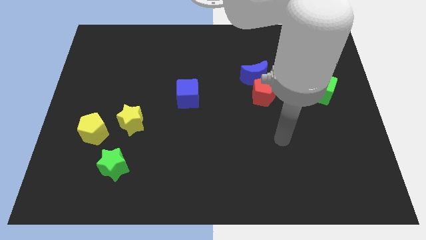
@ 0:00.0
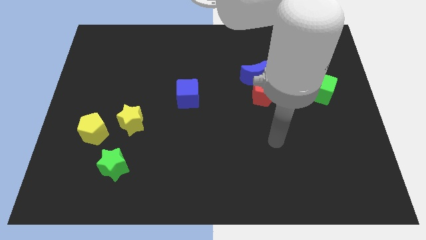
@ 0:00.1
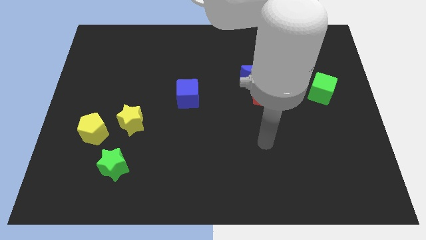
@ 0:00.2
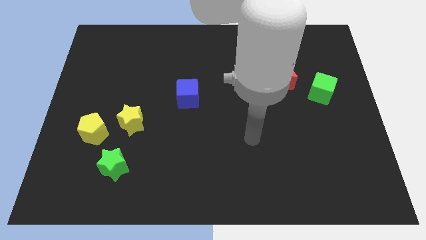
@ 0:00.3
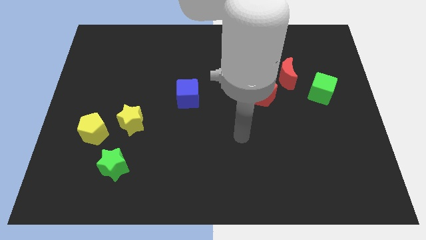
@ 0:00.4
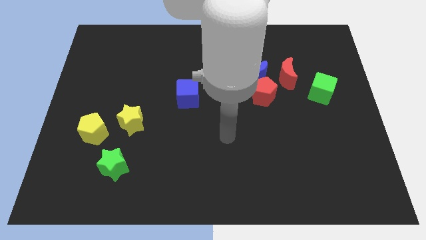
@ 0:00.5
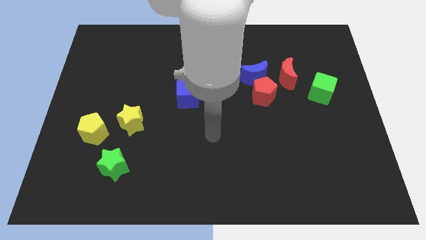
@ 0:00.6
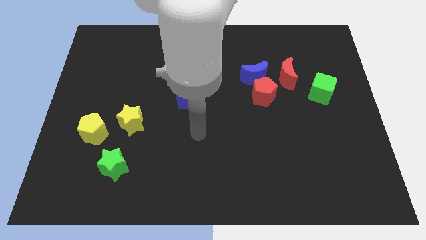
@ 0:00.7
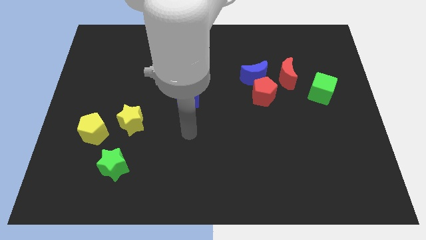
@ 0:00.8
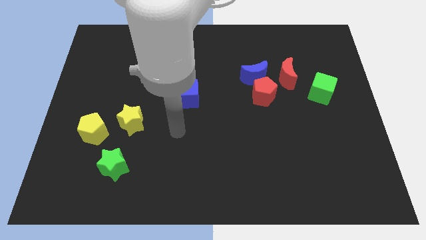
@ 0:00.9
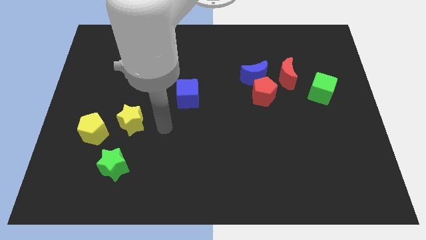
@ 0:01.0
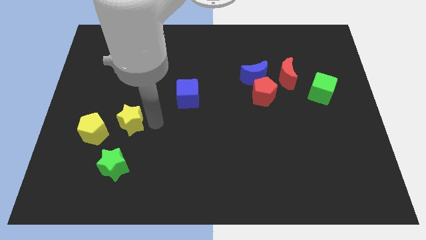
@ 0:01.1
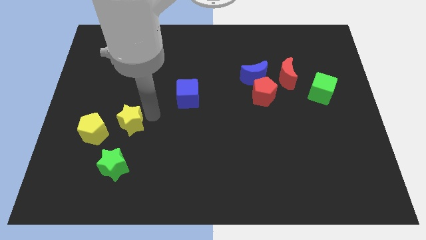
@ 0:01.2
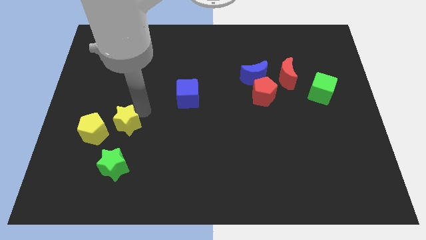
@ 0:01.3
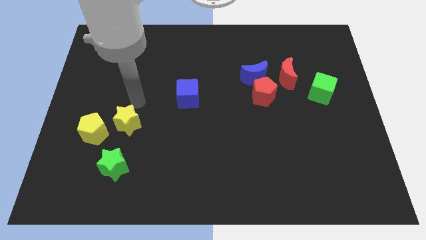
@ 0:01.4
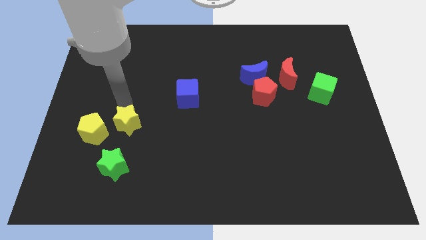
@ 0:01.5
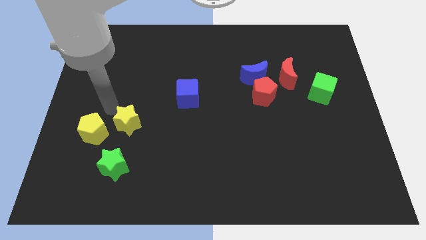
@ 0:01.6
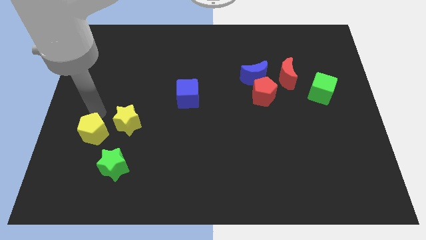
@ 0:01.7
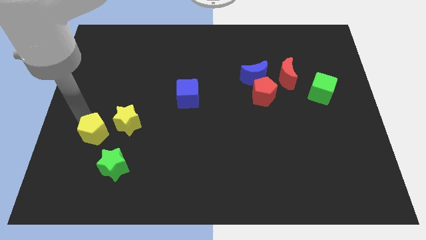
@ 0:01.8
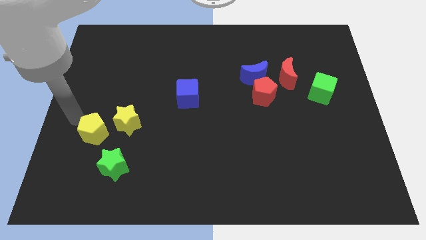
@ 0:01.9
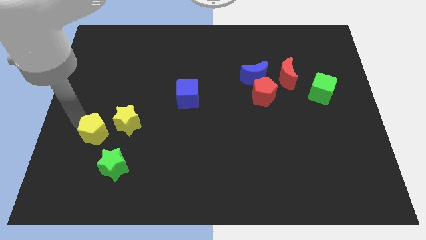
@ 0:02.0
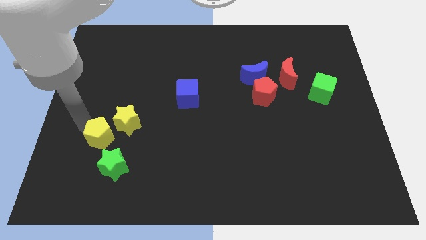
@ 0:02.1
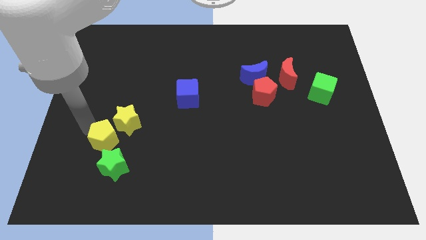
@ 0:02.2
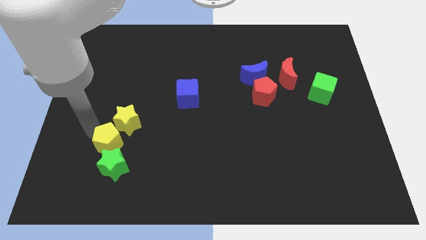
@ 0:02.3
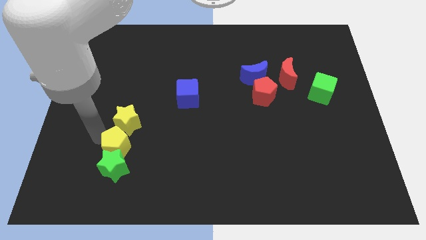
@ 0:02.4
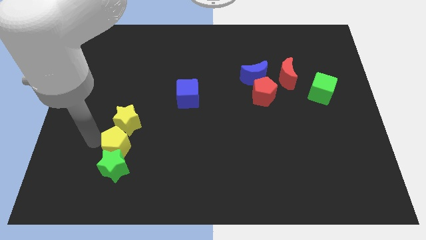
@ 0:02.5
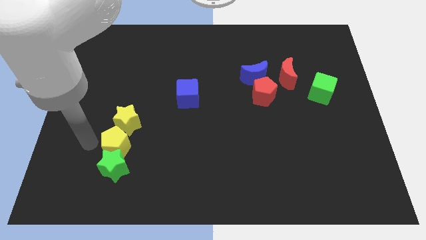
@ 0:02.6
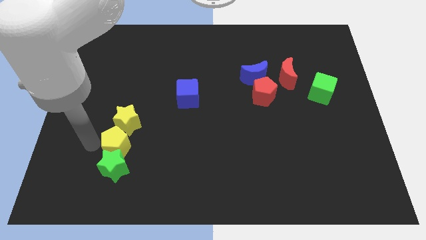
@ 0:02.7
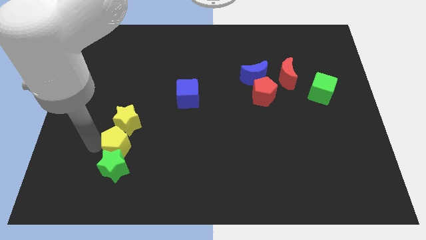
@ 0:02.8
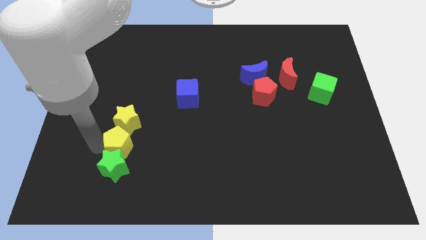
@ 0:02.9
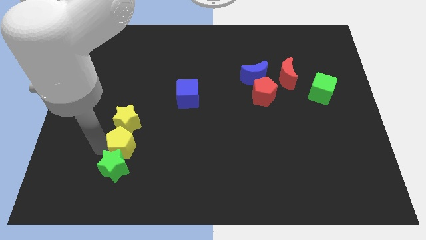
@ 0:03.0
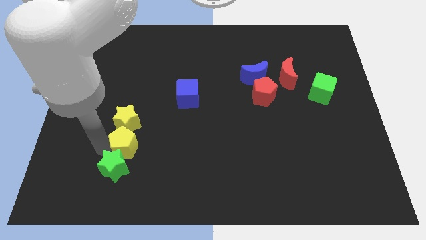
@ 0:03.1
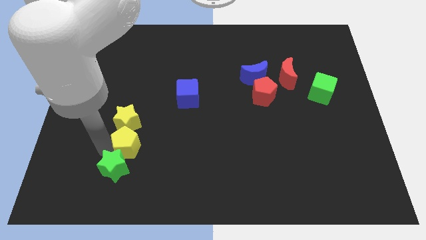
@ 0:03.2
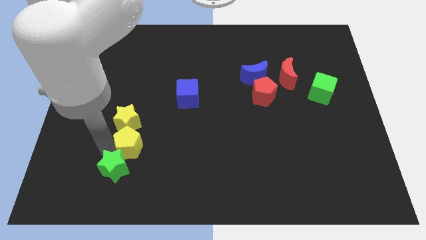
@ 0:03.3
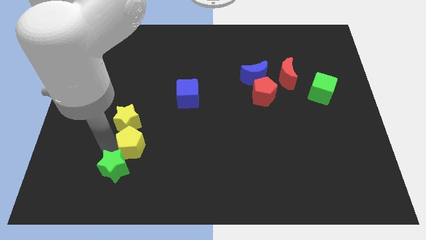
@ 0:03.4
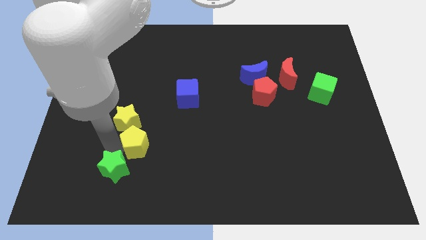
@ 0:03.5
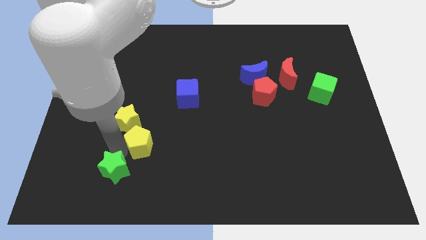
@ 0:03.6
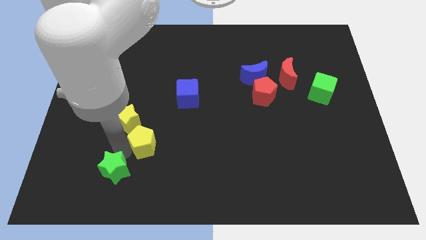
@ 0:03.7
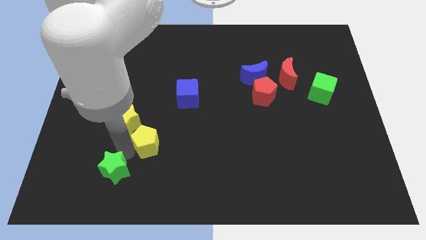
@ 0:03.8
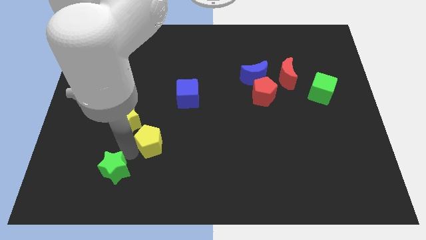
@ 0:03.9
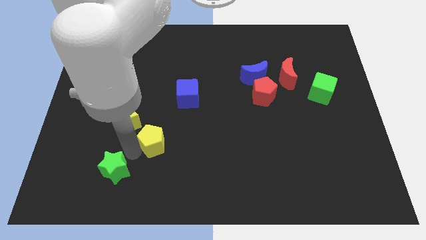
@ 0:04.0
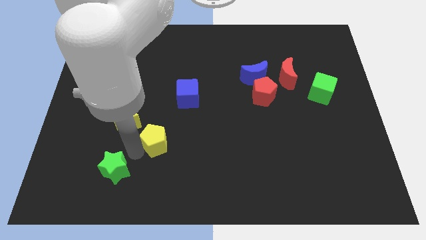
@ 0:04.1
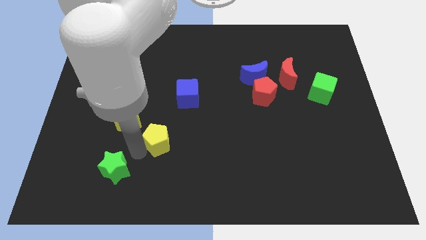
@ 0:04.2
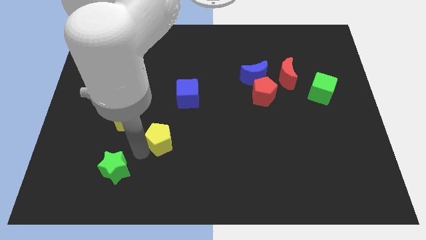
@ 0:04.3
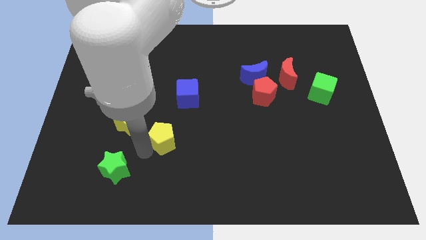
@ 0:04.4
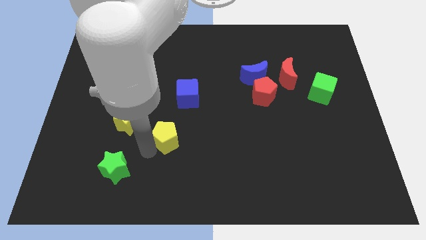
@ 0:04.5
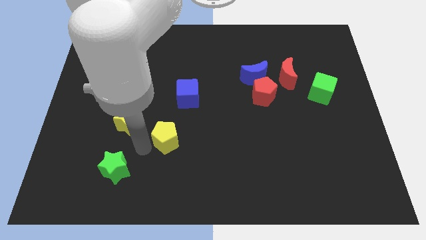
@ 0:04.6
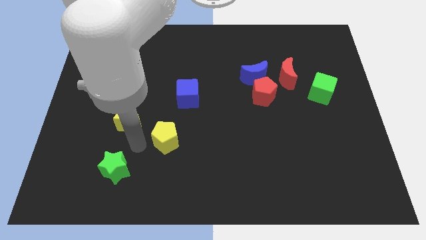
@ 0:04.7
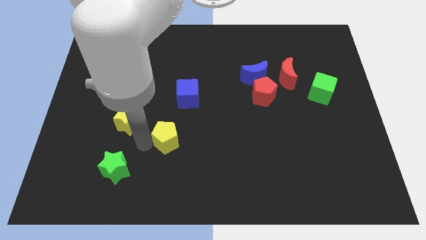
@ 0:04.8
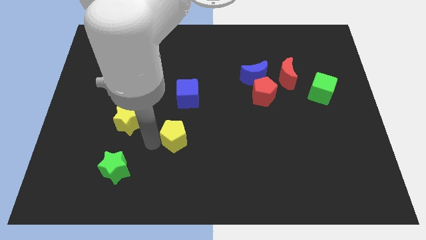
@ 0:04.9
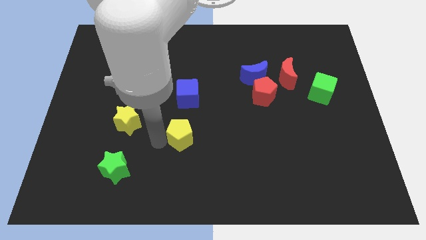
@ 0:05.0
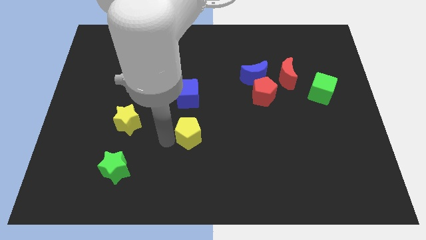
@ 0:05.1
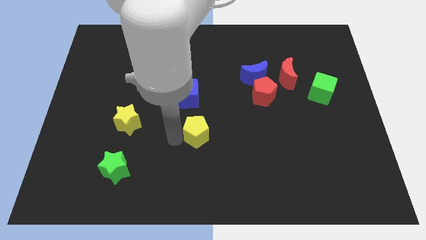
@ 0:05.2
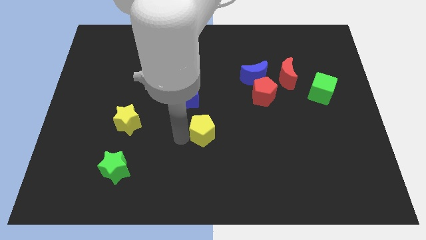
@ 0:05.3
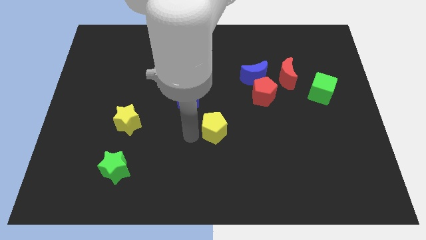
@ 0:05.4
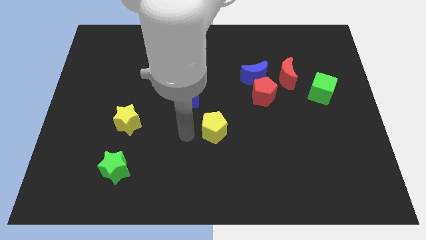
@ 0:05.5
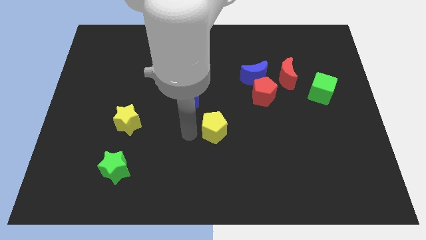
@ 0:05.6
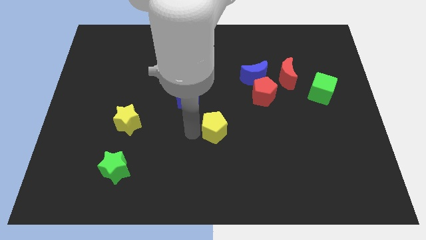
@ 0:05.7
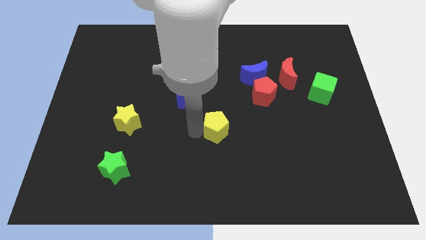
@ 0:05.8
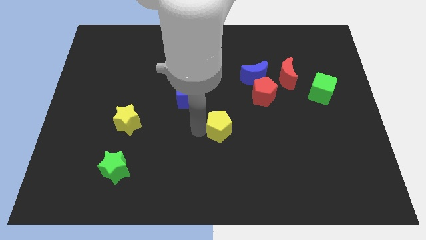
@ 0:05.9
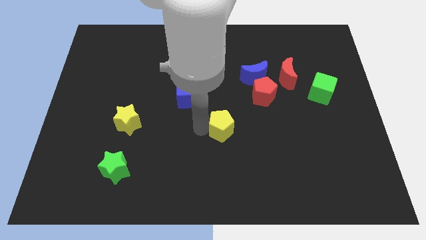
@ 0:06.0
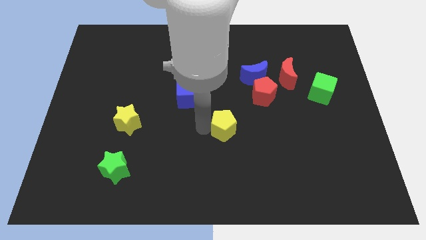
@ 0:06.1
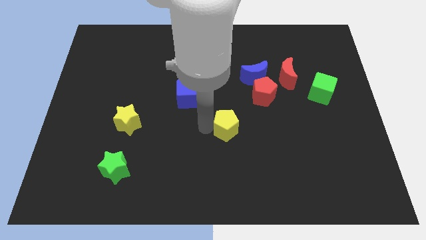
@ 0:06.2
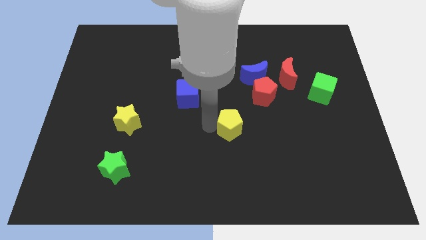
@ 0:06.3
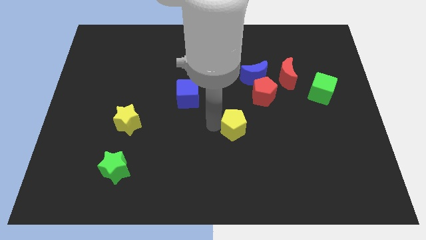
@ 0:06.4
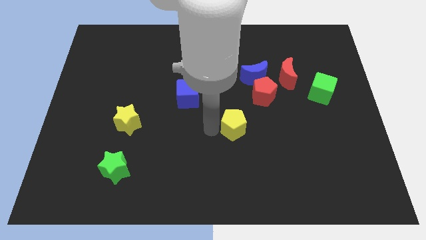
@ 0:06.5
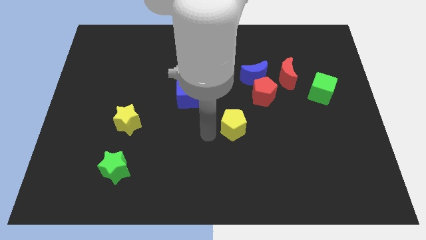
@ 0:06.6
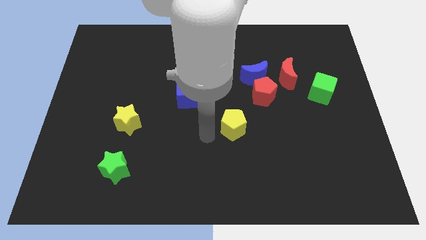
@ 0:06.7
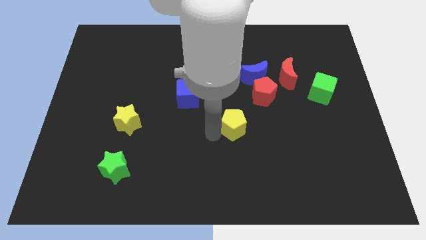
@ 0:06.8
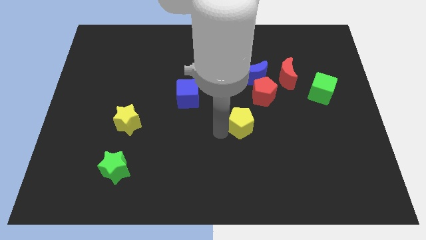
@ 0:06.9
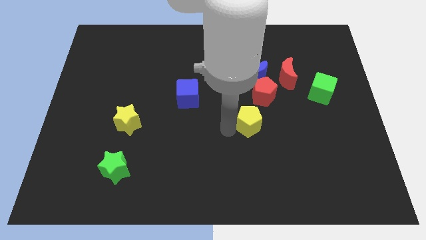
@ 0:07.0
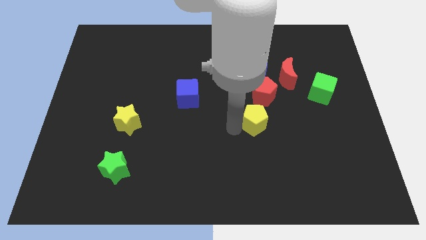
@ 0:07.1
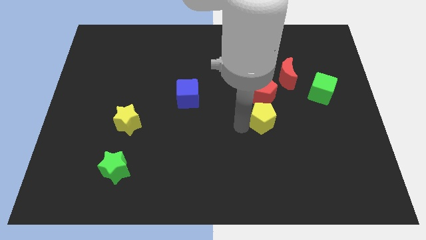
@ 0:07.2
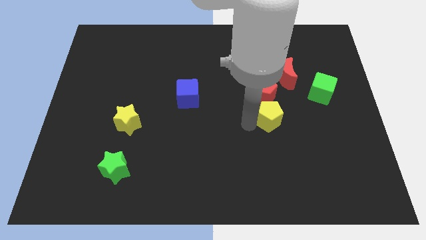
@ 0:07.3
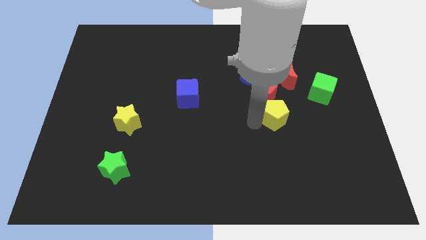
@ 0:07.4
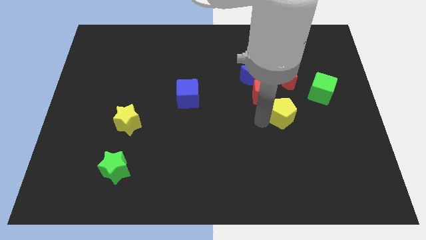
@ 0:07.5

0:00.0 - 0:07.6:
push the yellow pentagon diagonally down and to the left of the green cube
